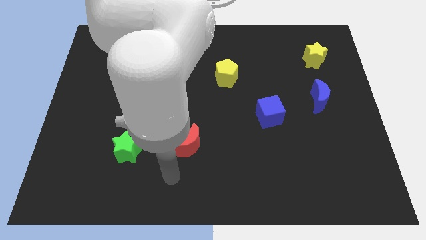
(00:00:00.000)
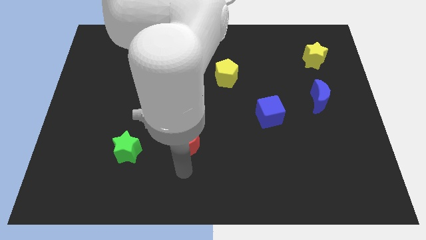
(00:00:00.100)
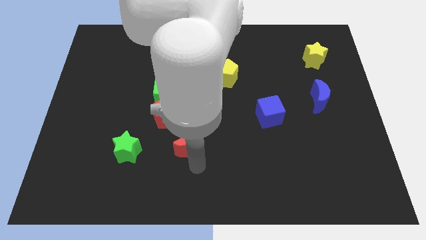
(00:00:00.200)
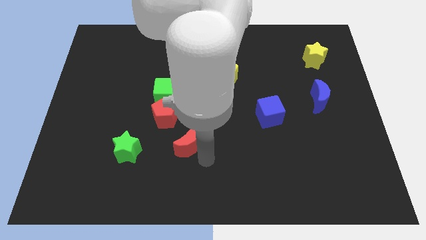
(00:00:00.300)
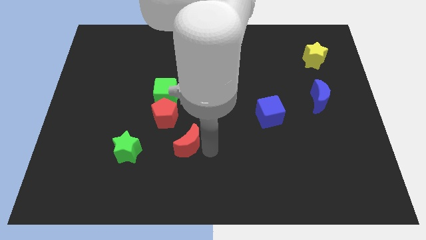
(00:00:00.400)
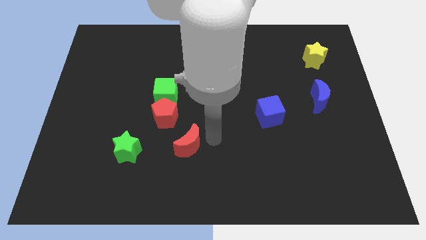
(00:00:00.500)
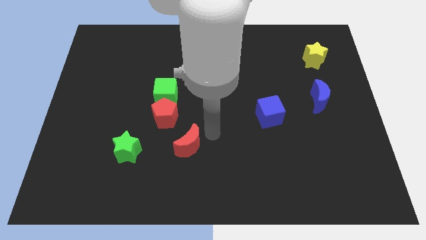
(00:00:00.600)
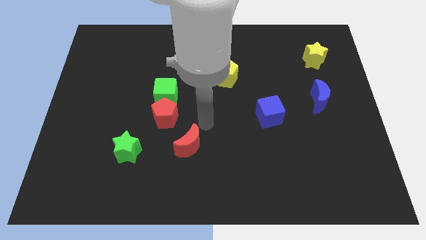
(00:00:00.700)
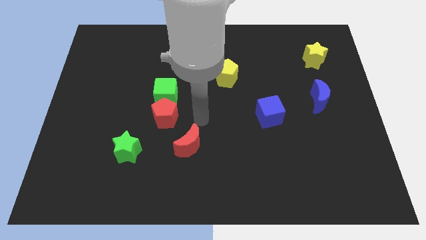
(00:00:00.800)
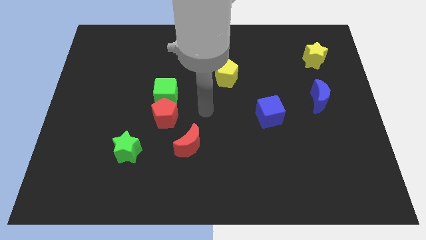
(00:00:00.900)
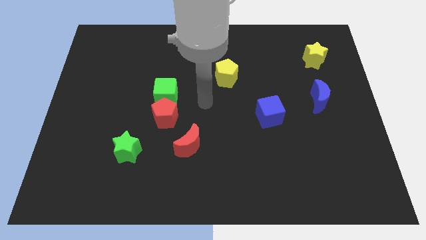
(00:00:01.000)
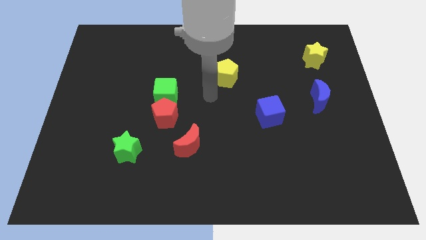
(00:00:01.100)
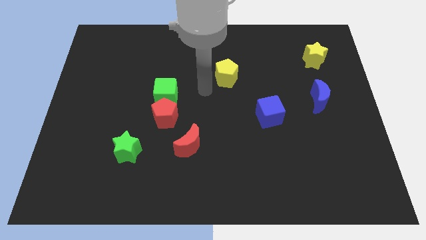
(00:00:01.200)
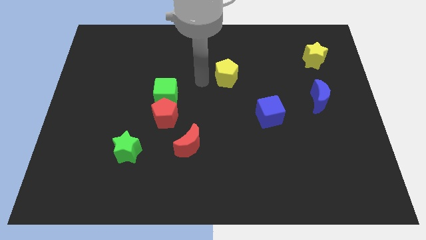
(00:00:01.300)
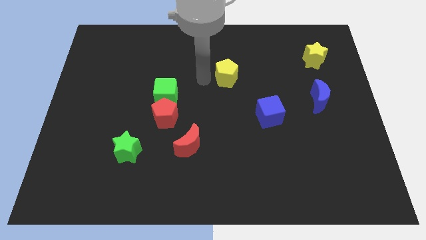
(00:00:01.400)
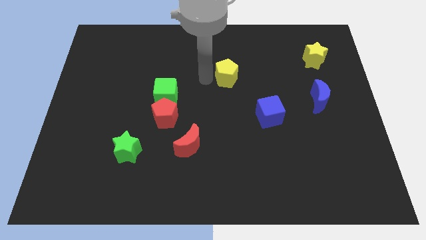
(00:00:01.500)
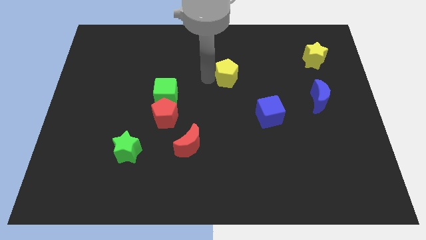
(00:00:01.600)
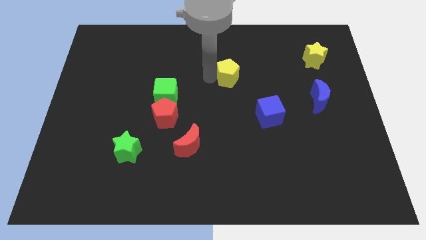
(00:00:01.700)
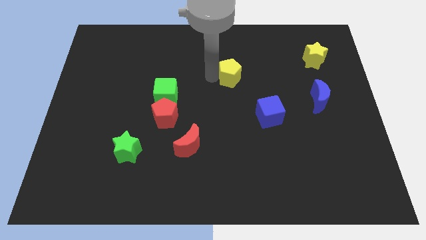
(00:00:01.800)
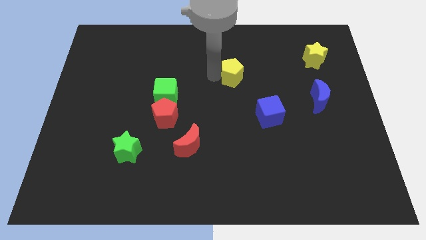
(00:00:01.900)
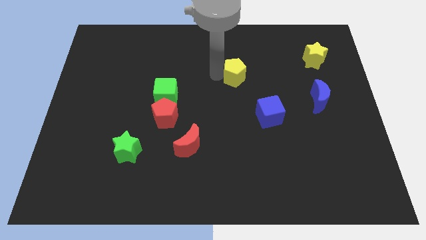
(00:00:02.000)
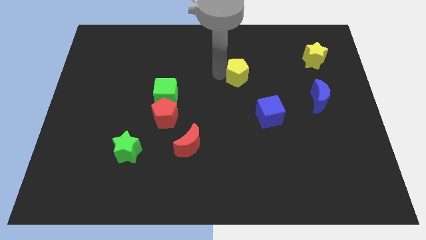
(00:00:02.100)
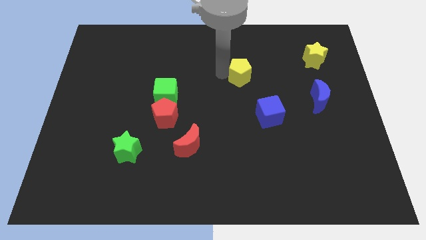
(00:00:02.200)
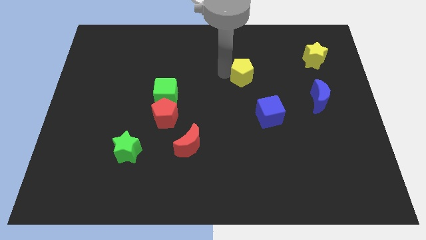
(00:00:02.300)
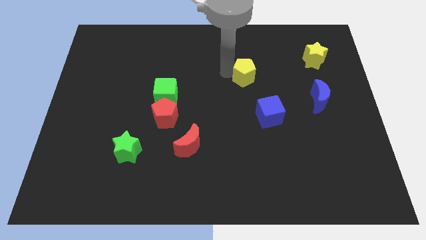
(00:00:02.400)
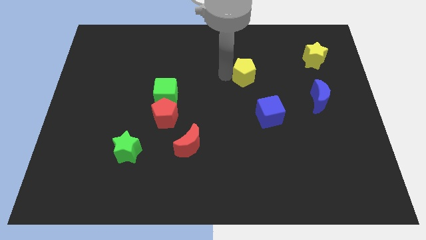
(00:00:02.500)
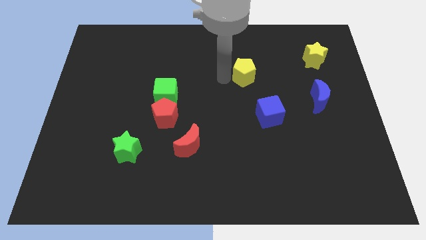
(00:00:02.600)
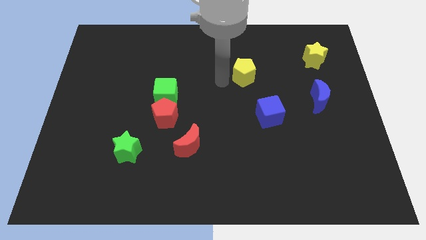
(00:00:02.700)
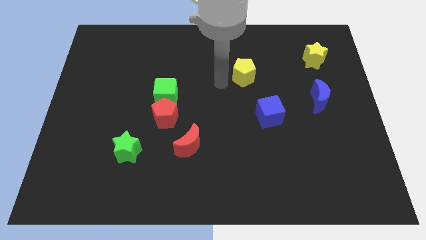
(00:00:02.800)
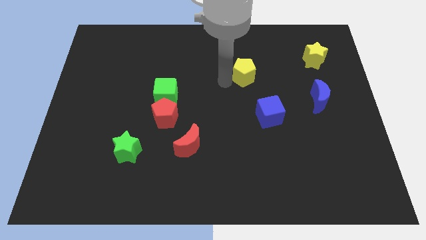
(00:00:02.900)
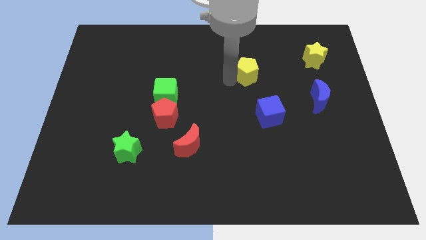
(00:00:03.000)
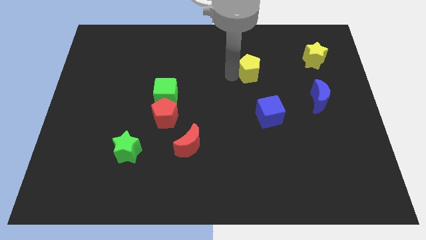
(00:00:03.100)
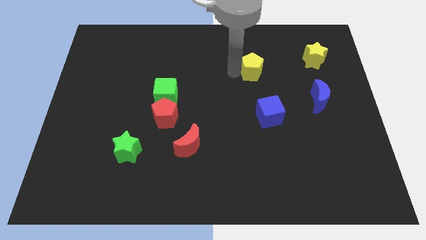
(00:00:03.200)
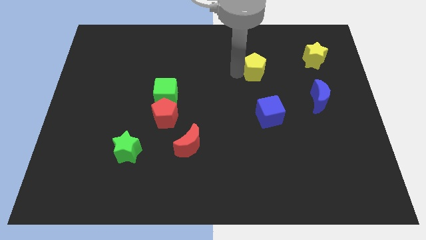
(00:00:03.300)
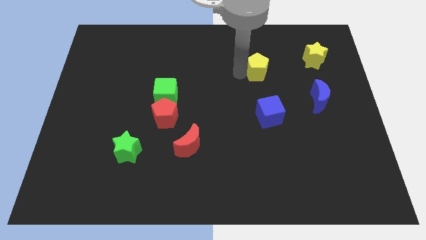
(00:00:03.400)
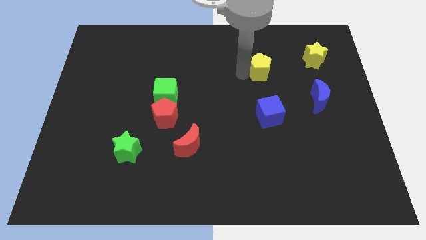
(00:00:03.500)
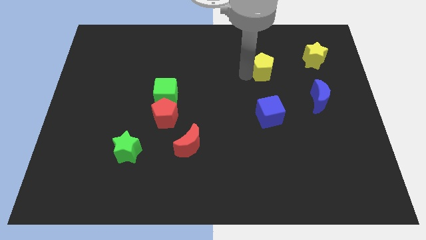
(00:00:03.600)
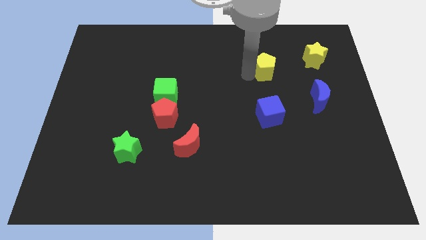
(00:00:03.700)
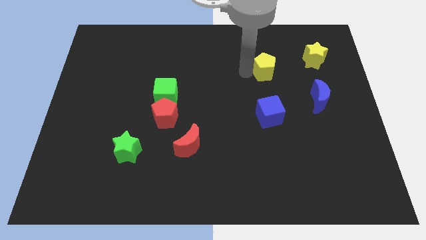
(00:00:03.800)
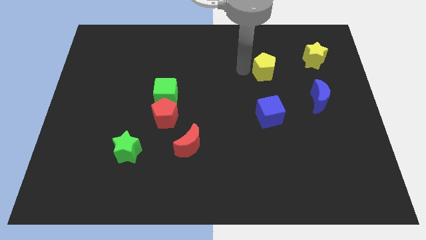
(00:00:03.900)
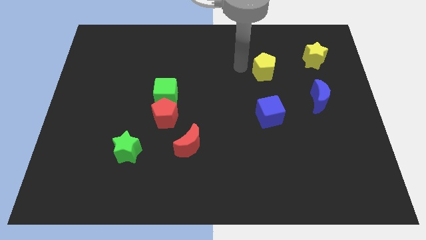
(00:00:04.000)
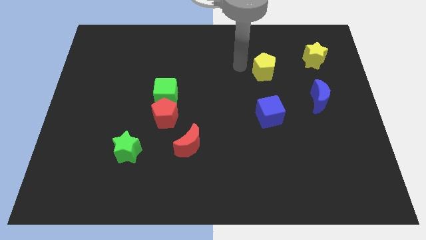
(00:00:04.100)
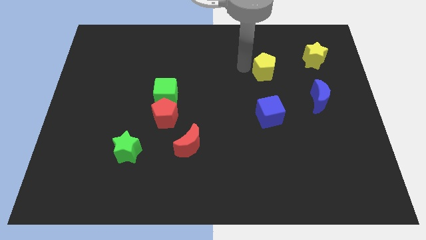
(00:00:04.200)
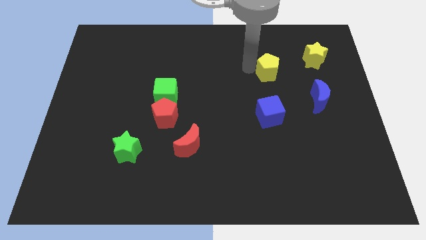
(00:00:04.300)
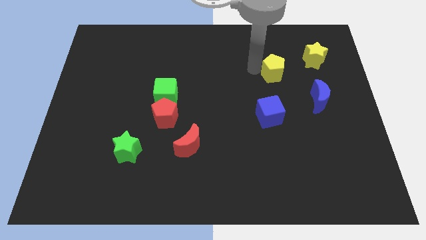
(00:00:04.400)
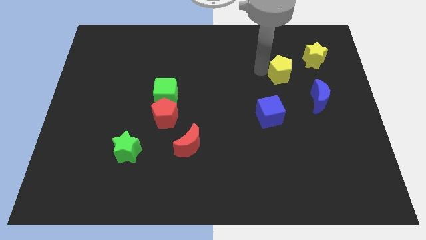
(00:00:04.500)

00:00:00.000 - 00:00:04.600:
put the yellow pentagon to the bottom left of the yellow star

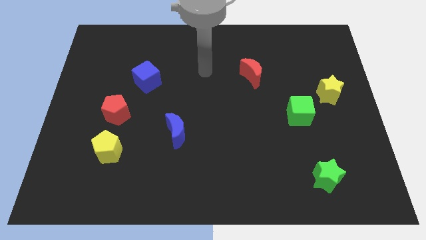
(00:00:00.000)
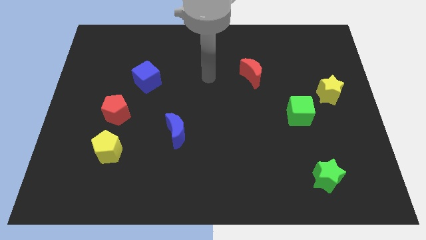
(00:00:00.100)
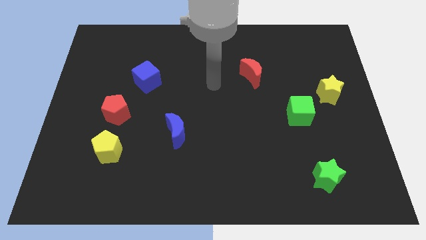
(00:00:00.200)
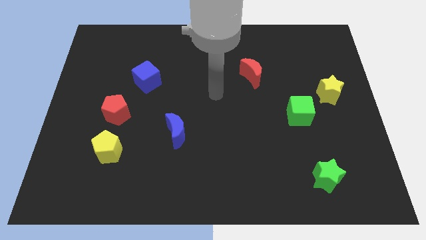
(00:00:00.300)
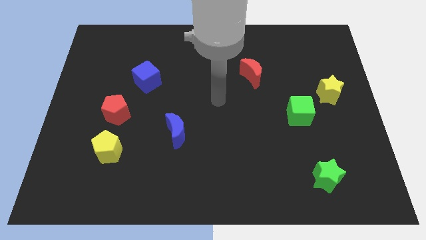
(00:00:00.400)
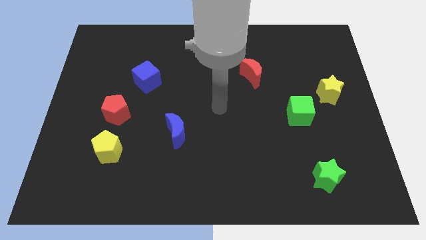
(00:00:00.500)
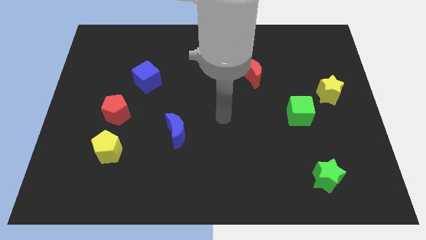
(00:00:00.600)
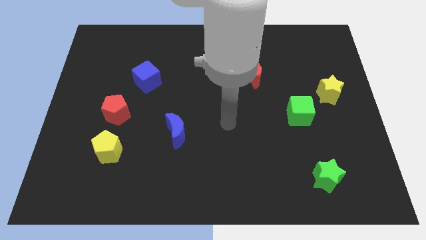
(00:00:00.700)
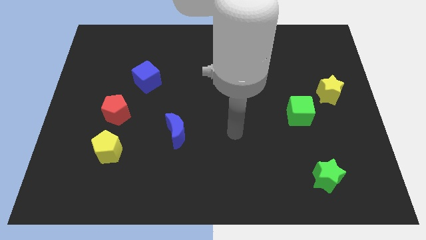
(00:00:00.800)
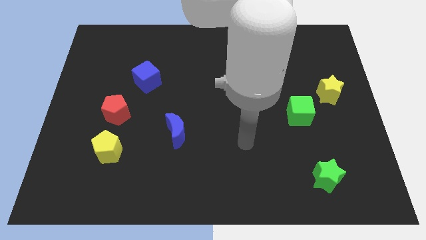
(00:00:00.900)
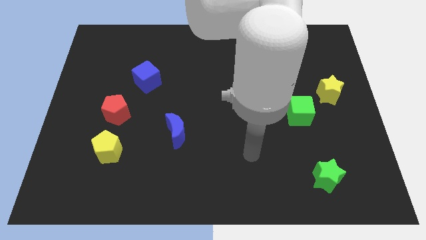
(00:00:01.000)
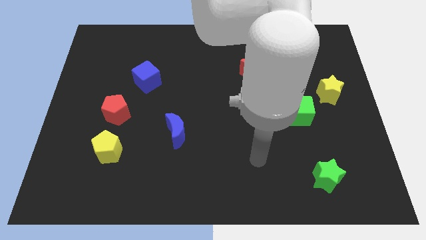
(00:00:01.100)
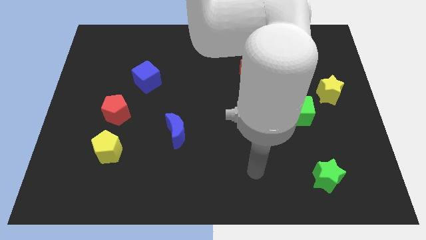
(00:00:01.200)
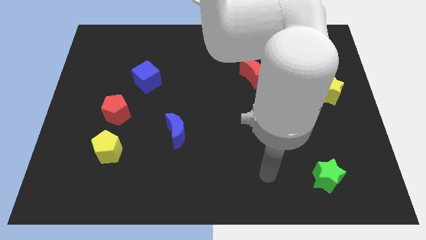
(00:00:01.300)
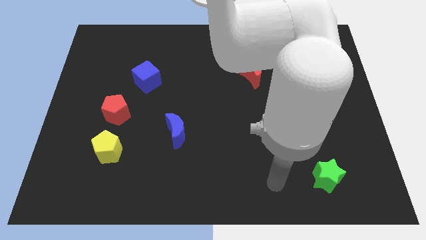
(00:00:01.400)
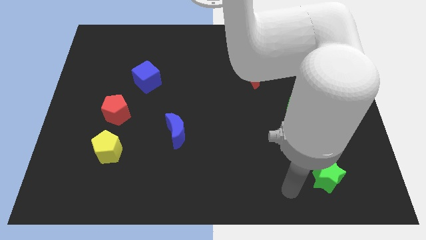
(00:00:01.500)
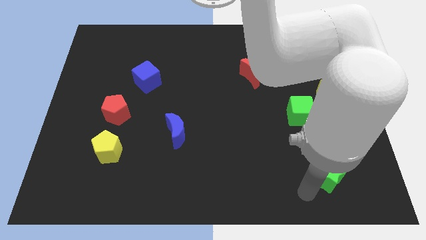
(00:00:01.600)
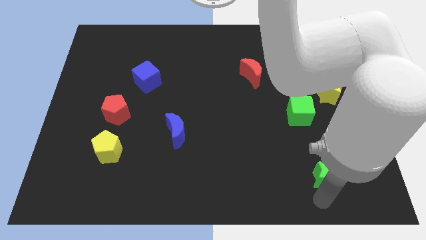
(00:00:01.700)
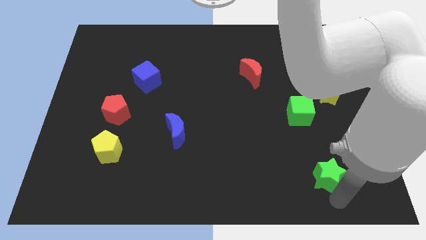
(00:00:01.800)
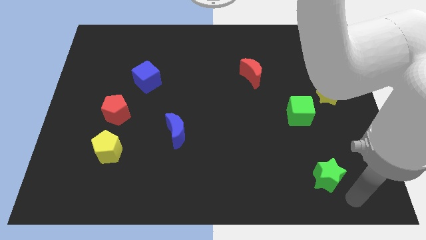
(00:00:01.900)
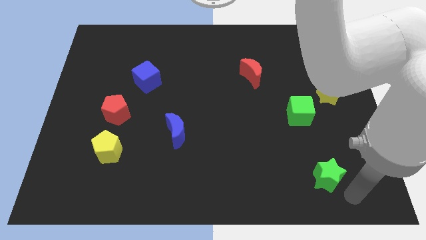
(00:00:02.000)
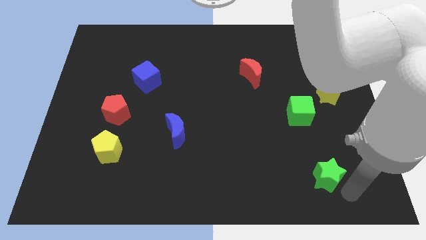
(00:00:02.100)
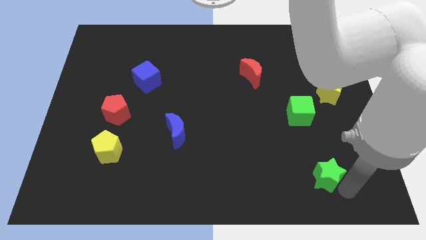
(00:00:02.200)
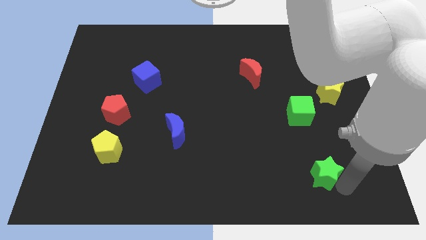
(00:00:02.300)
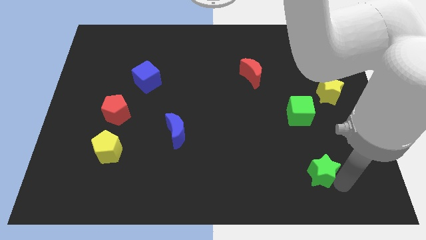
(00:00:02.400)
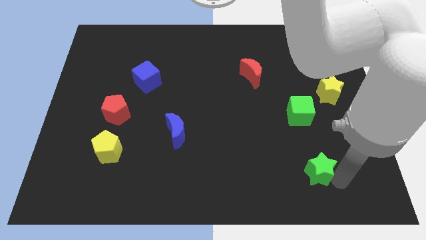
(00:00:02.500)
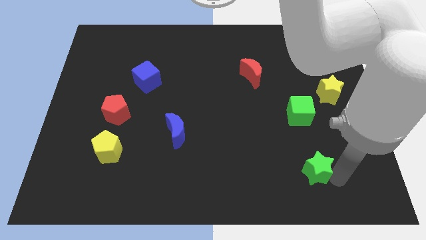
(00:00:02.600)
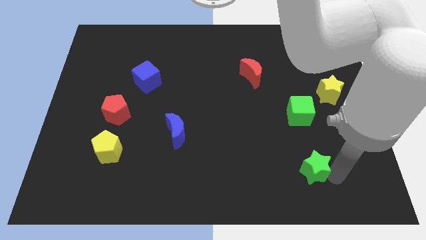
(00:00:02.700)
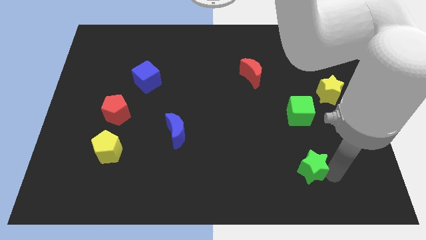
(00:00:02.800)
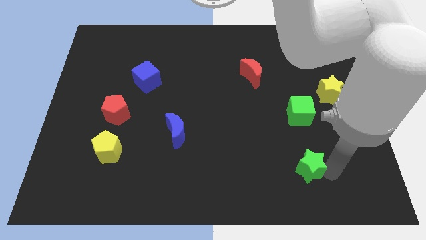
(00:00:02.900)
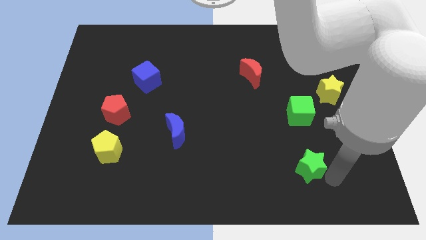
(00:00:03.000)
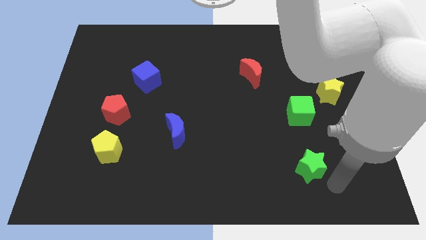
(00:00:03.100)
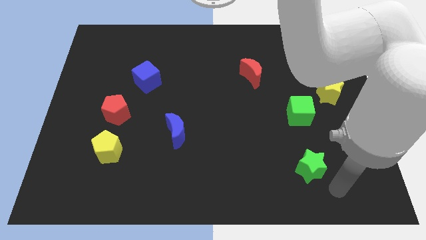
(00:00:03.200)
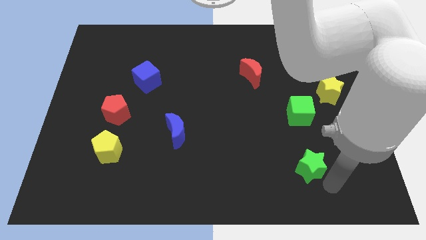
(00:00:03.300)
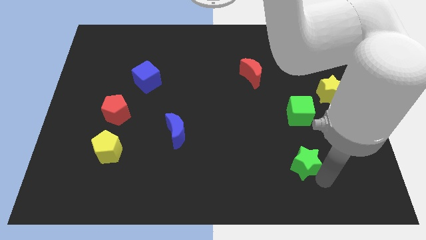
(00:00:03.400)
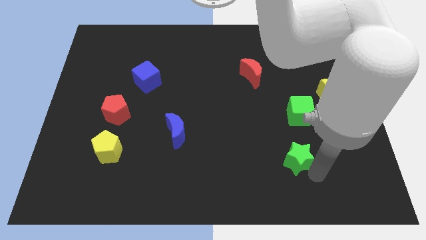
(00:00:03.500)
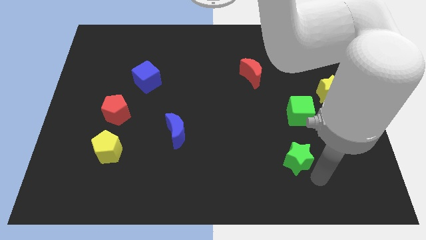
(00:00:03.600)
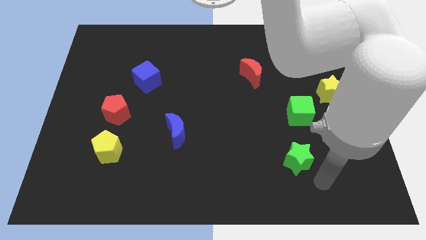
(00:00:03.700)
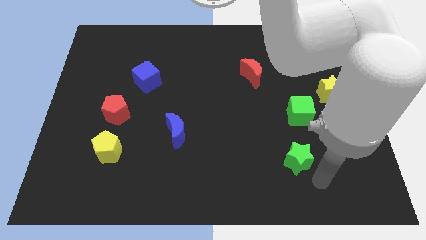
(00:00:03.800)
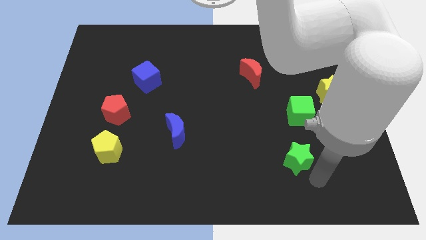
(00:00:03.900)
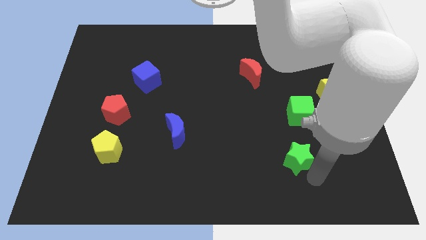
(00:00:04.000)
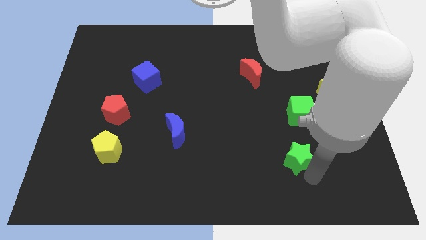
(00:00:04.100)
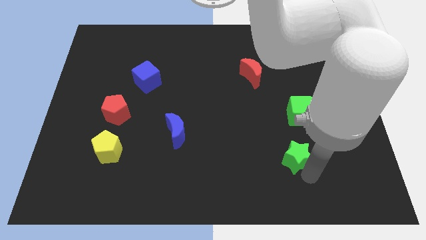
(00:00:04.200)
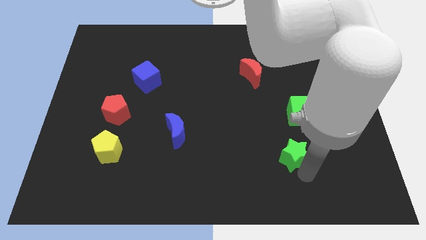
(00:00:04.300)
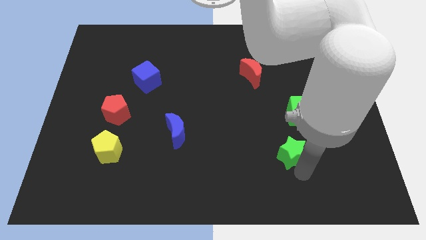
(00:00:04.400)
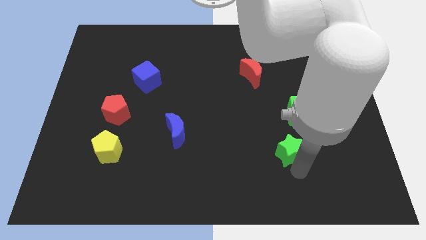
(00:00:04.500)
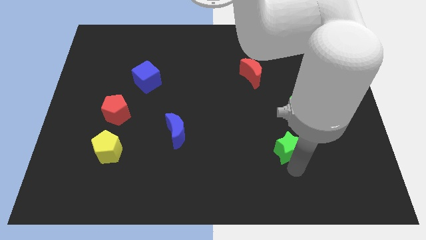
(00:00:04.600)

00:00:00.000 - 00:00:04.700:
put the green star to the bottom left side of the green cube
